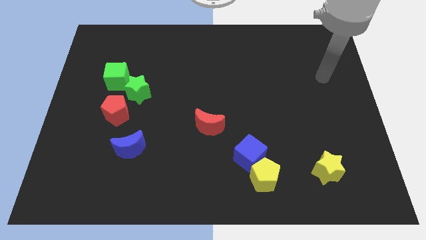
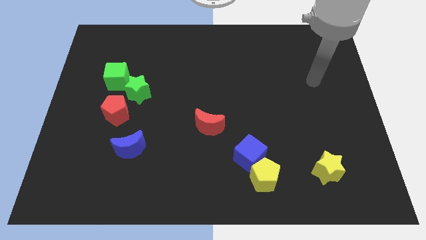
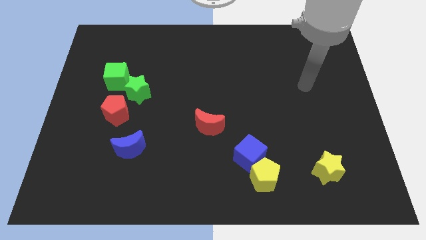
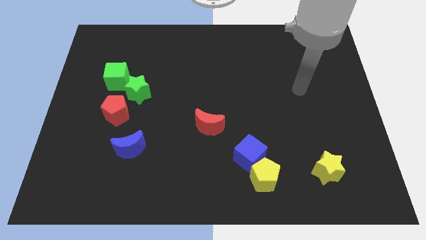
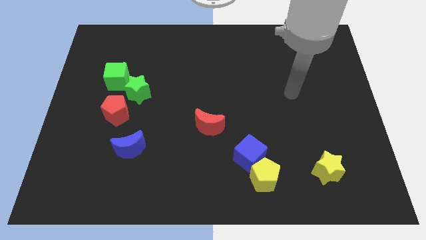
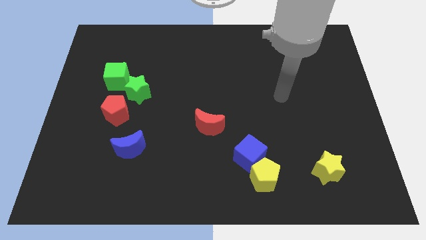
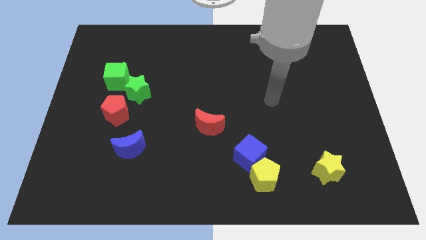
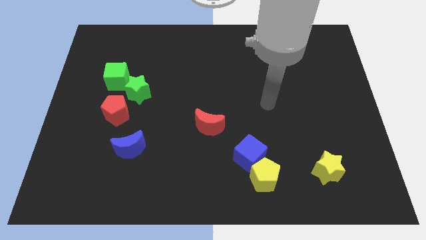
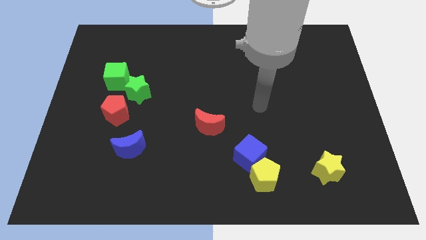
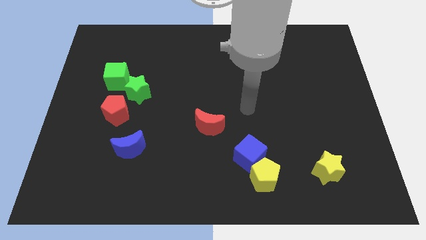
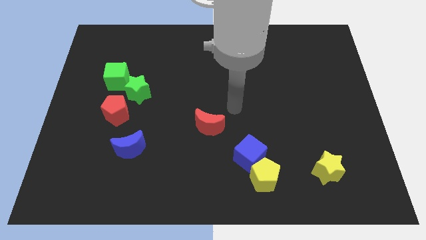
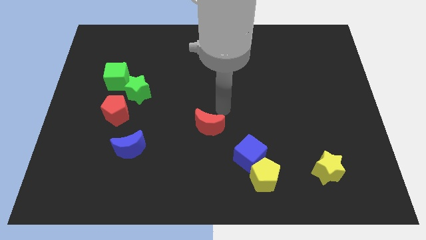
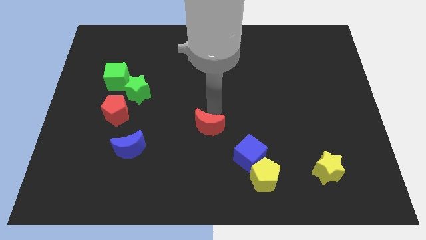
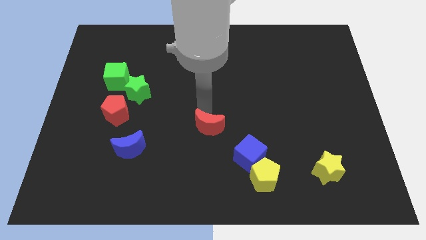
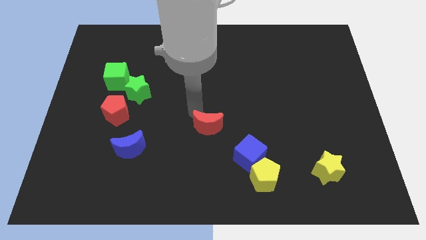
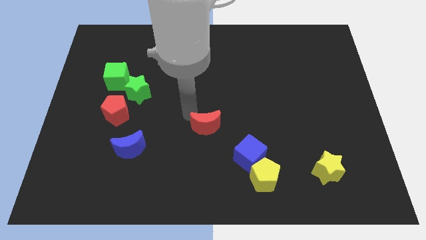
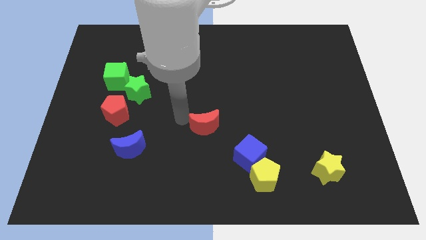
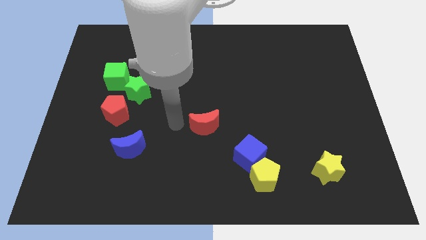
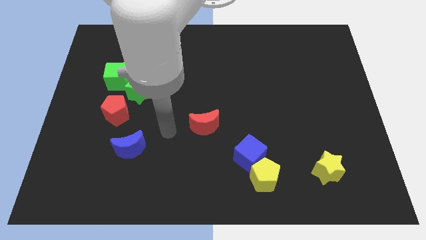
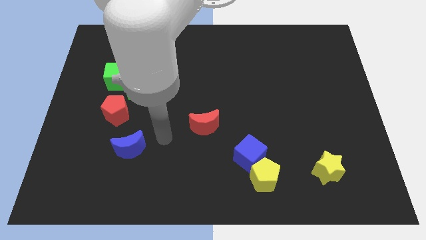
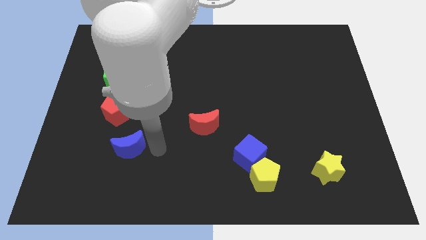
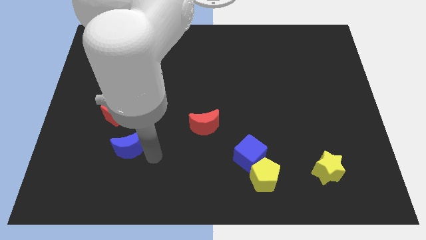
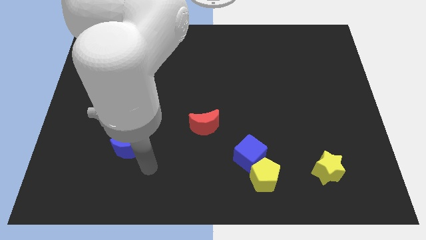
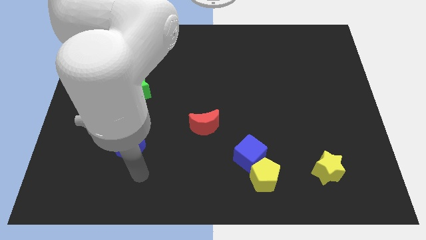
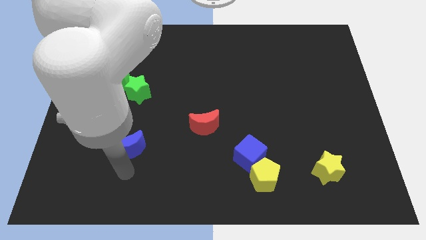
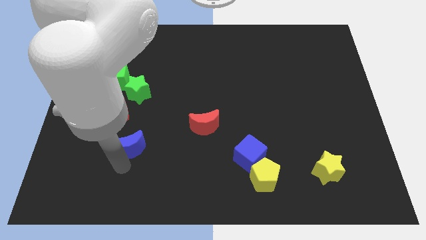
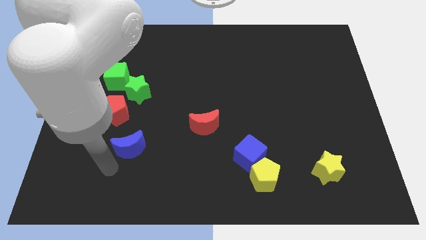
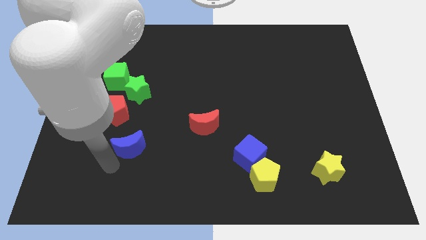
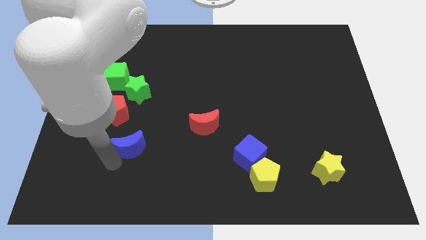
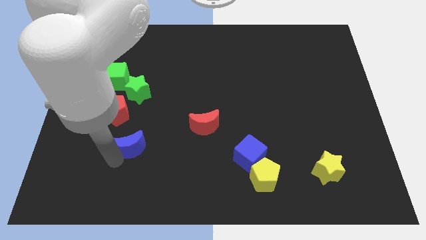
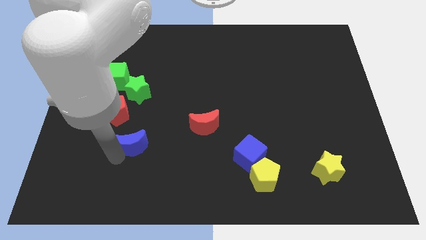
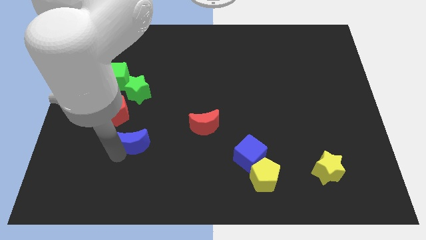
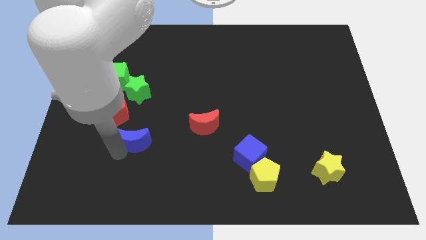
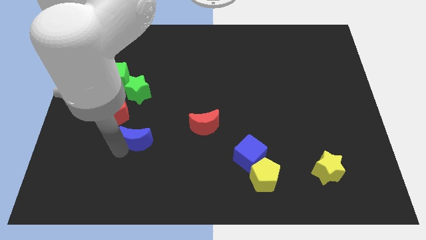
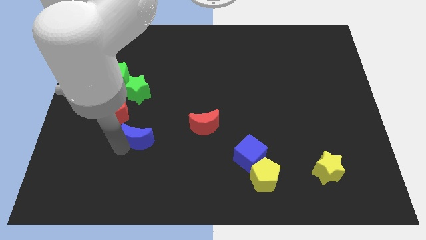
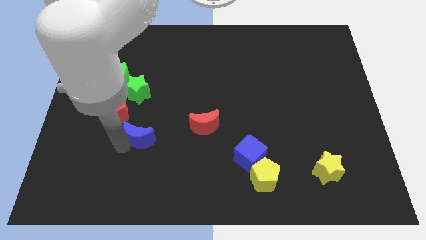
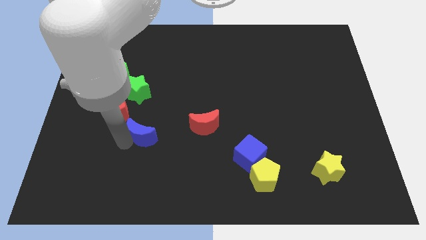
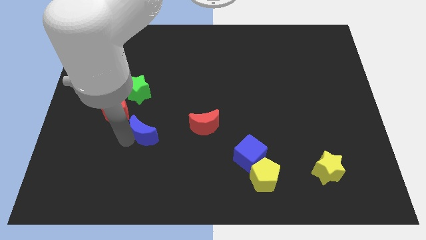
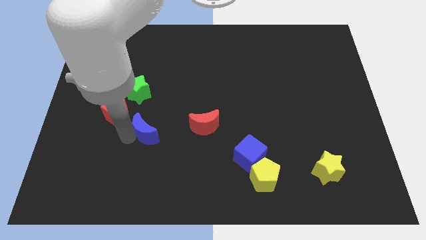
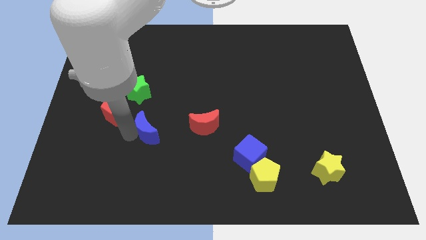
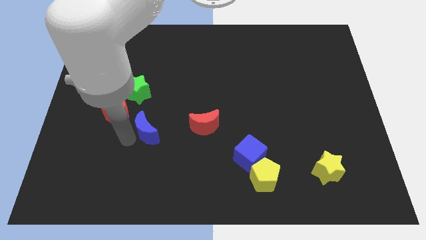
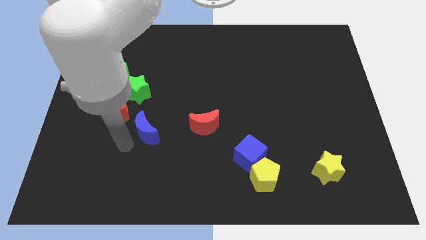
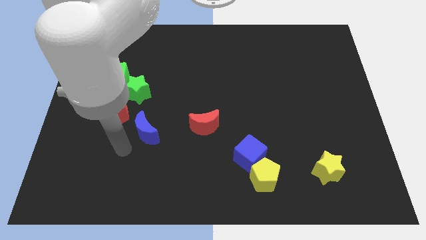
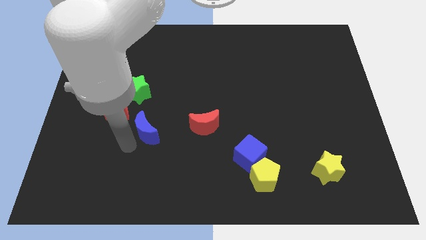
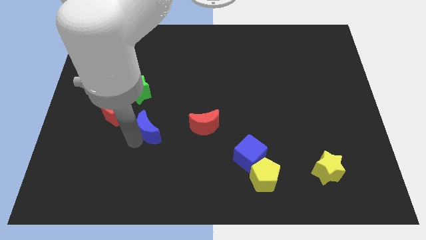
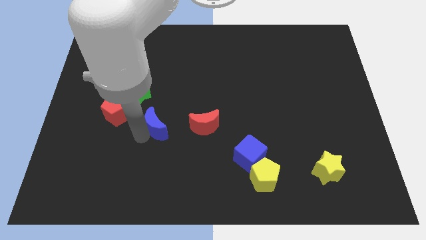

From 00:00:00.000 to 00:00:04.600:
slightly slide the blue moon upwards and to the right diagonally

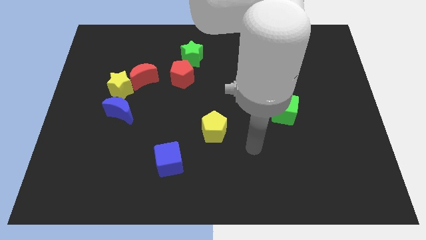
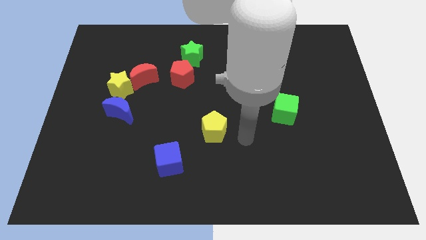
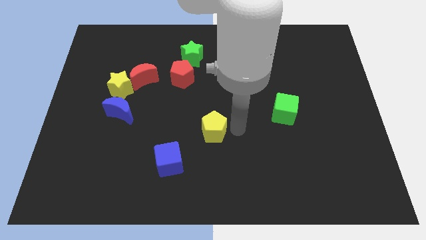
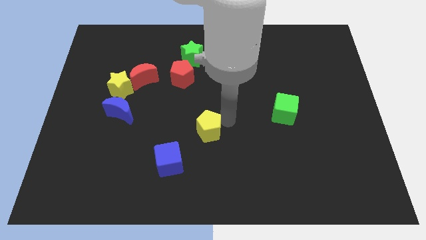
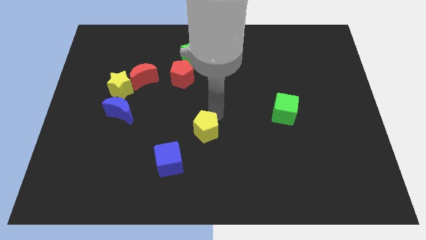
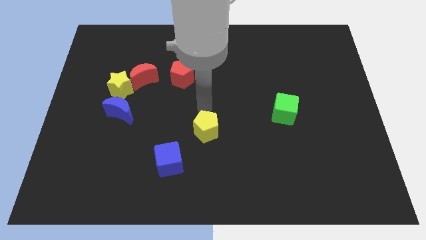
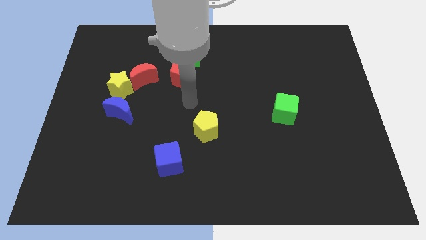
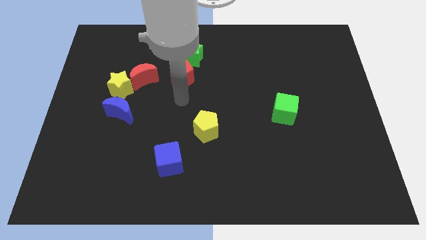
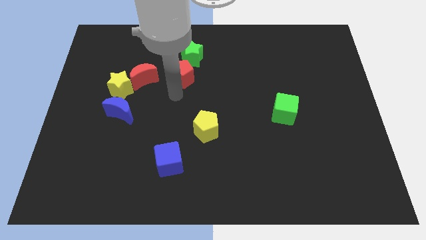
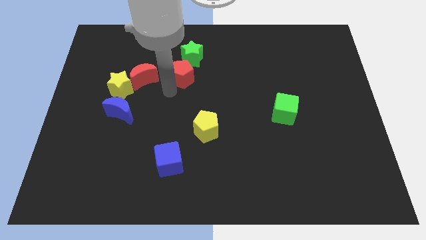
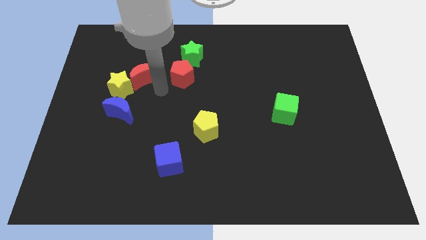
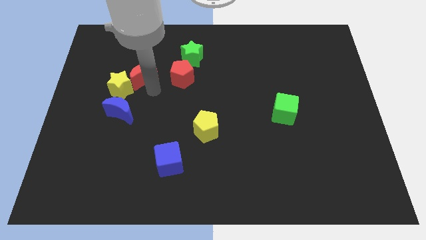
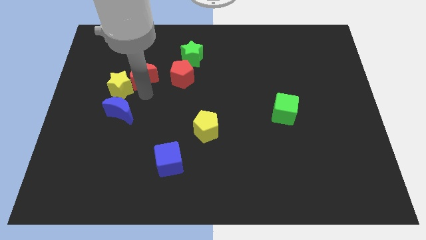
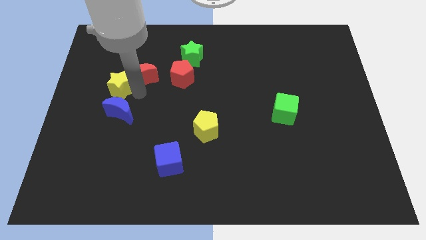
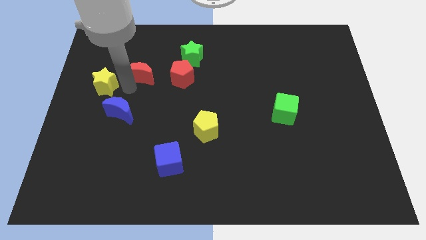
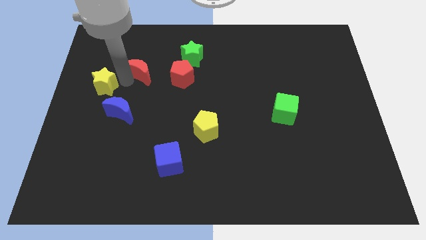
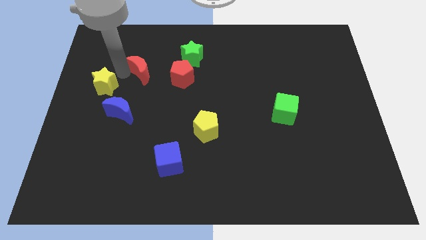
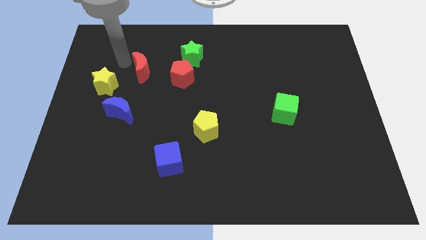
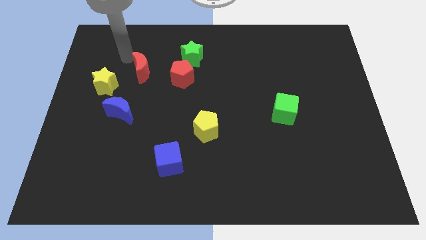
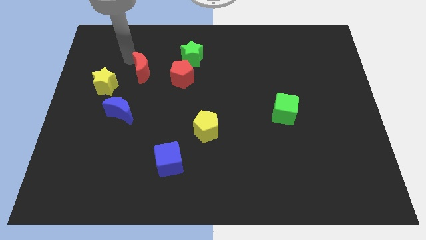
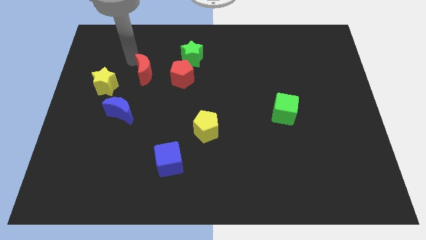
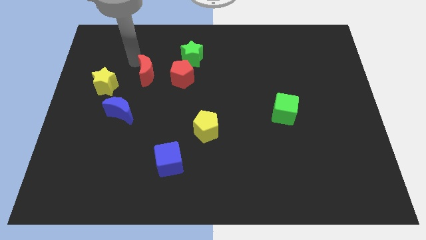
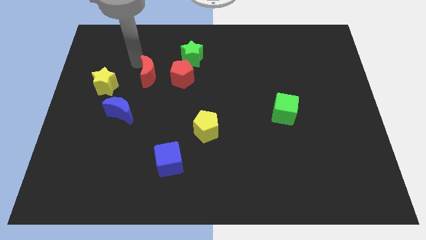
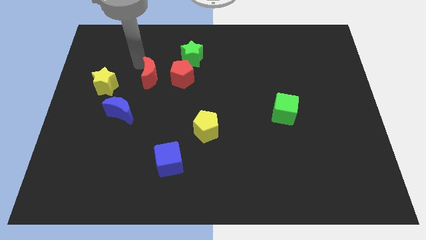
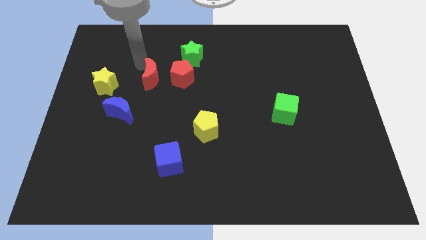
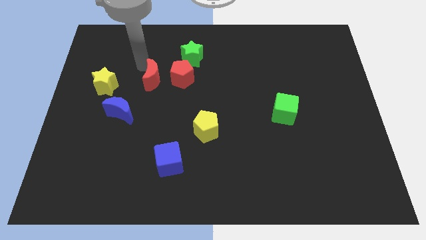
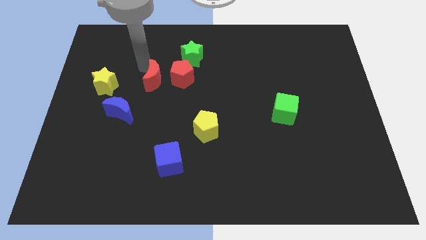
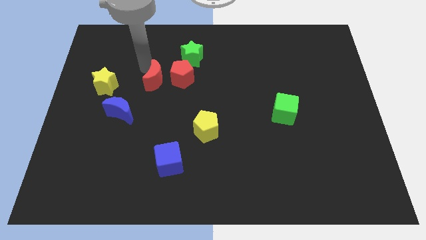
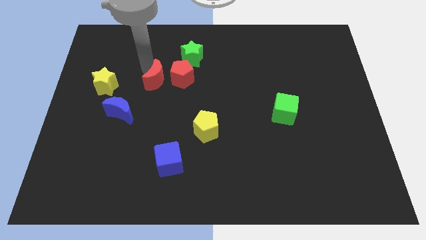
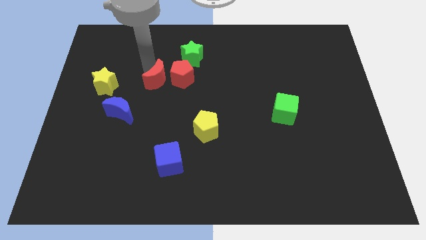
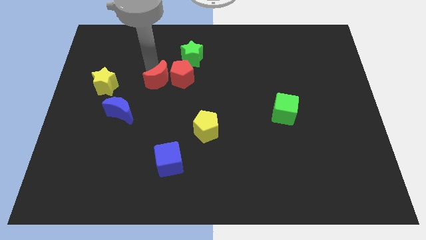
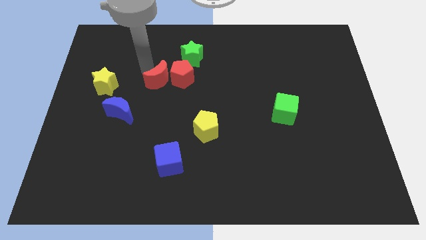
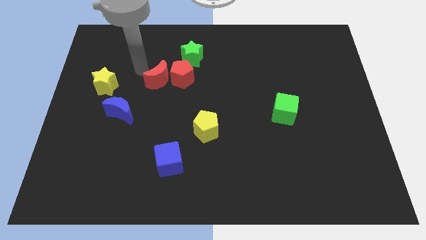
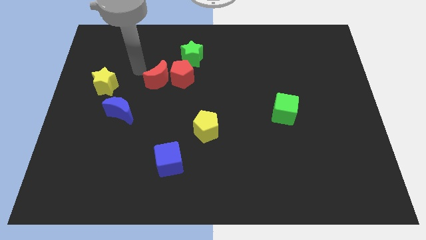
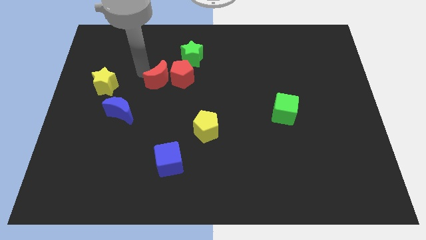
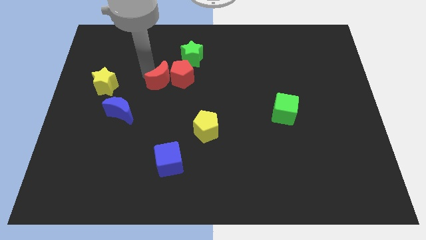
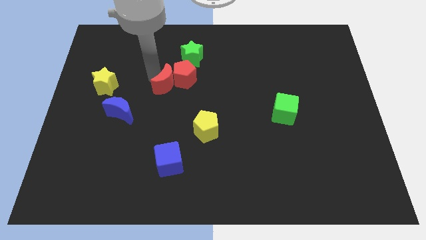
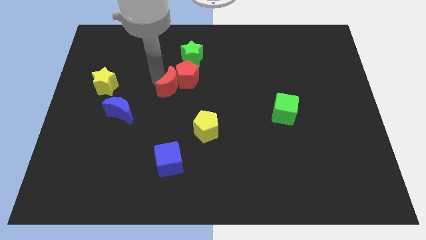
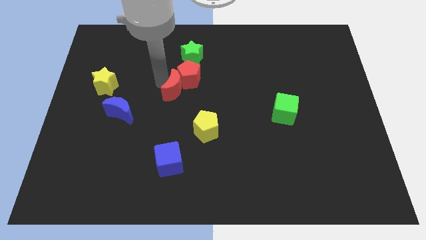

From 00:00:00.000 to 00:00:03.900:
move the red moon somewhat to the right
